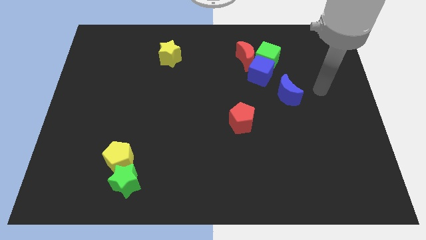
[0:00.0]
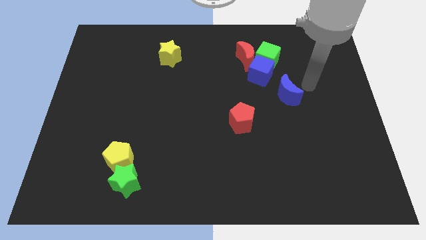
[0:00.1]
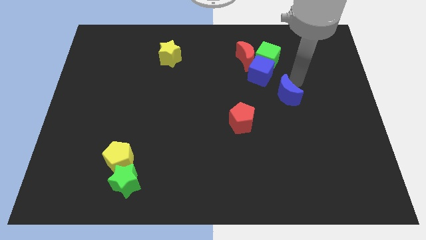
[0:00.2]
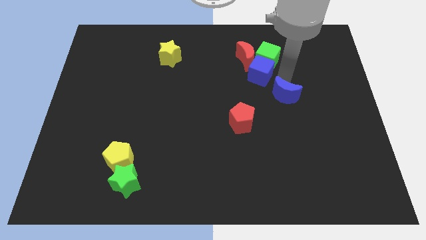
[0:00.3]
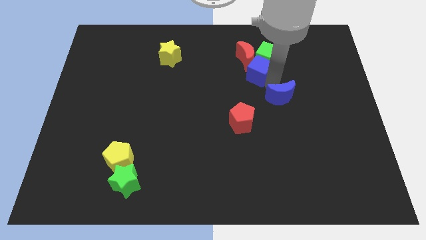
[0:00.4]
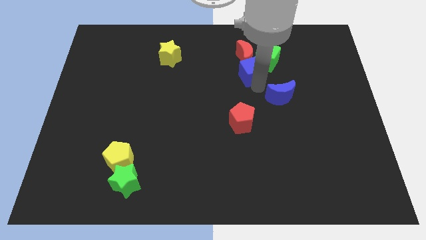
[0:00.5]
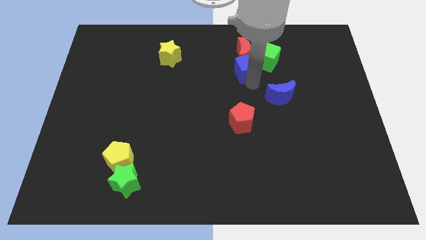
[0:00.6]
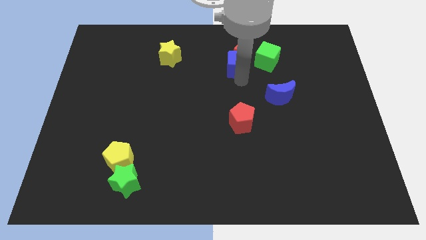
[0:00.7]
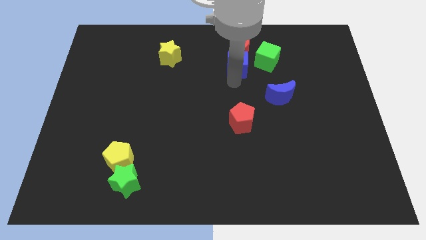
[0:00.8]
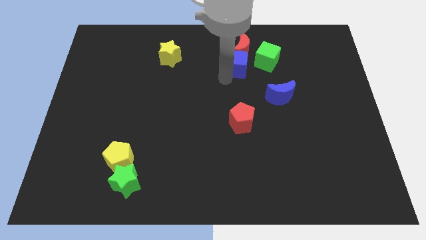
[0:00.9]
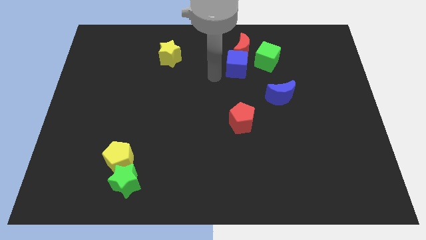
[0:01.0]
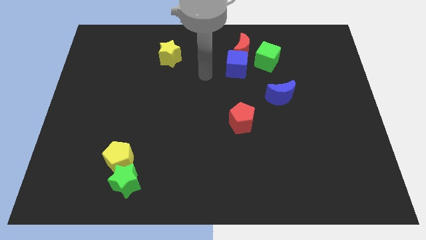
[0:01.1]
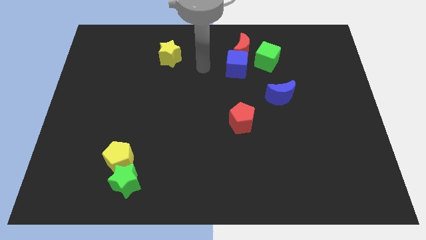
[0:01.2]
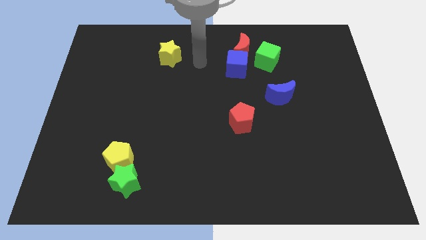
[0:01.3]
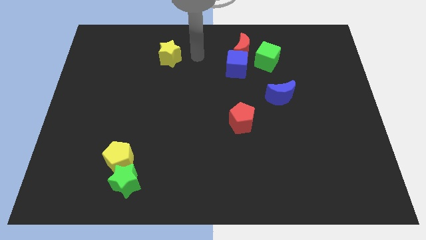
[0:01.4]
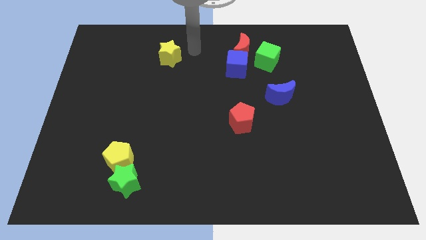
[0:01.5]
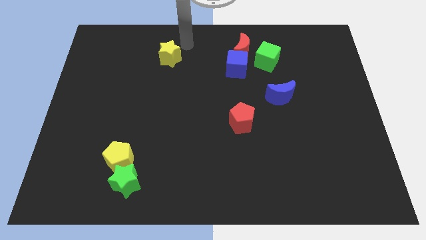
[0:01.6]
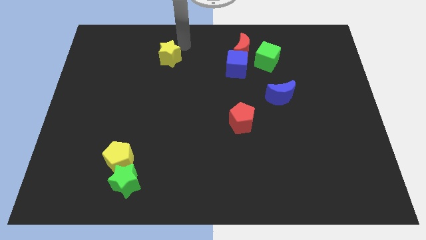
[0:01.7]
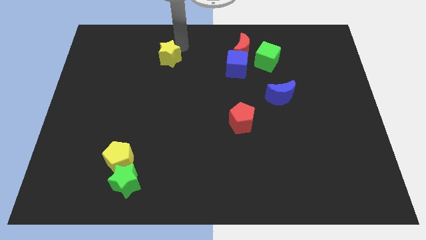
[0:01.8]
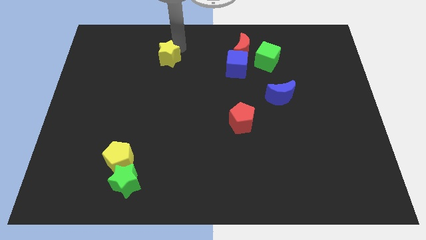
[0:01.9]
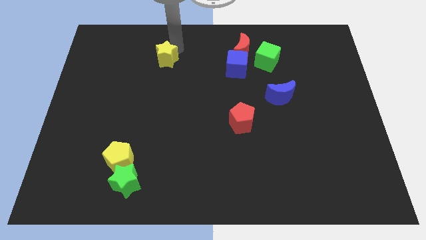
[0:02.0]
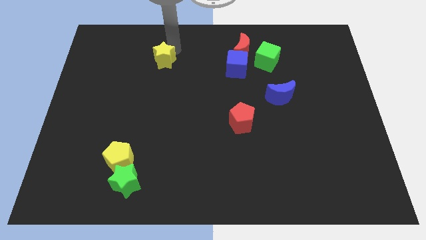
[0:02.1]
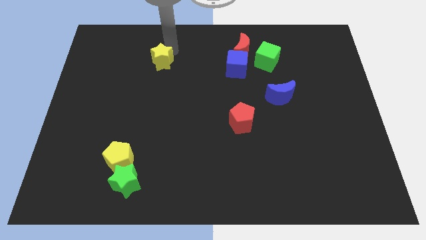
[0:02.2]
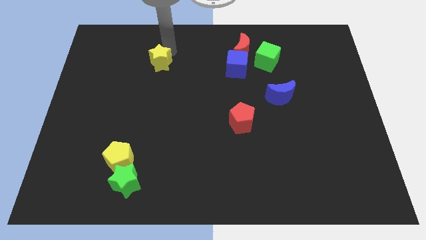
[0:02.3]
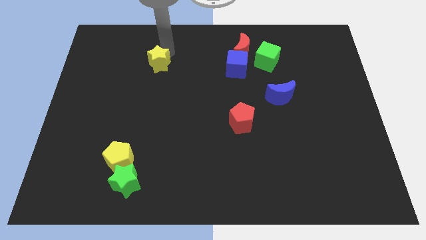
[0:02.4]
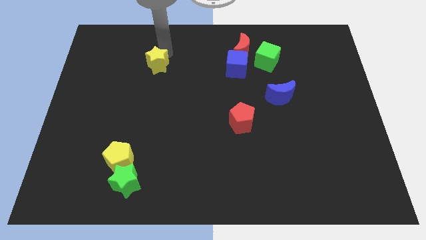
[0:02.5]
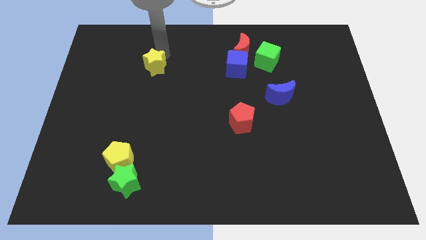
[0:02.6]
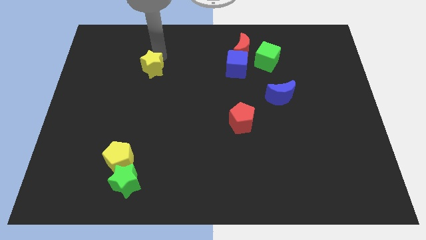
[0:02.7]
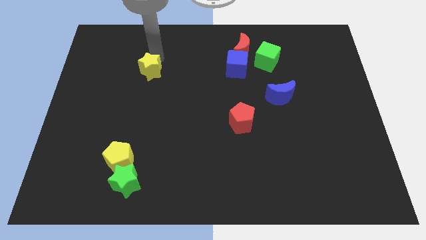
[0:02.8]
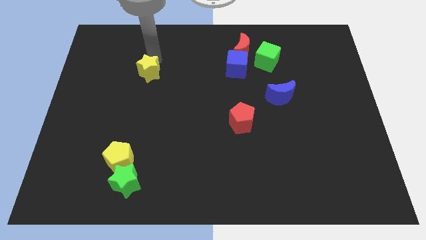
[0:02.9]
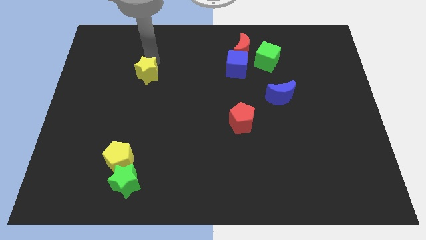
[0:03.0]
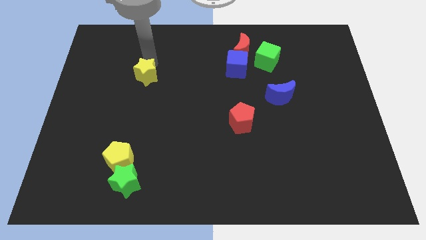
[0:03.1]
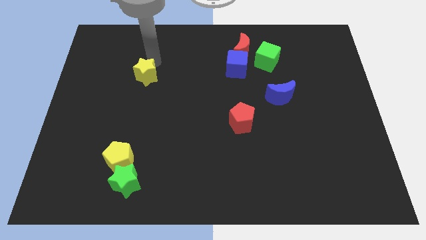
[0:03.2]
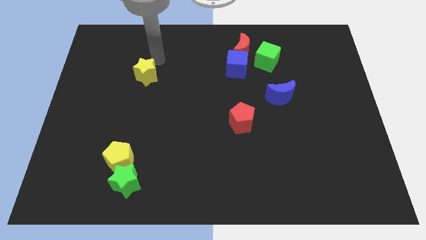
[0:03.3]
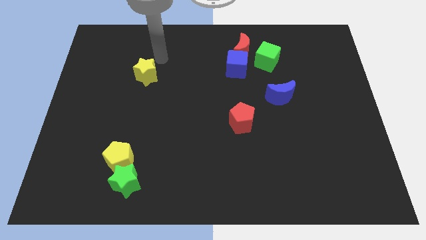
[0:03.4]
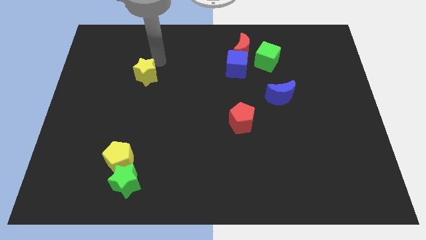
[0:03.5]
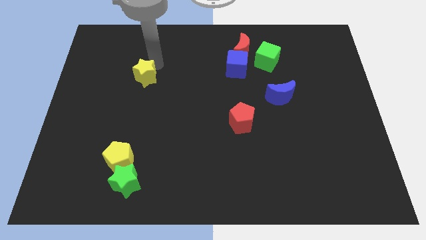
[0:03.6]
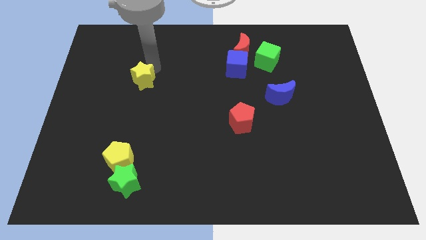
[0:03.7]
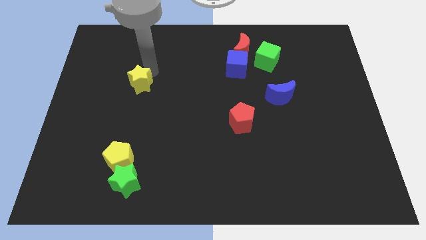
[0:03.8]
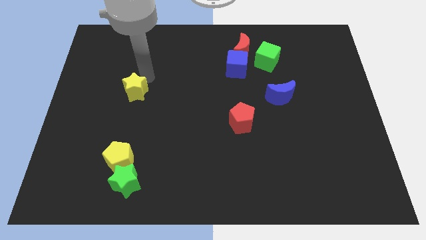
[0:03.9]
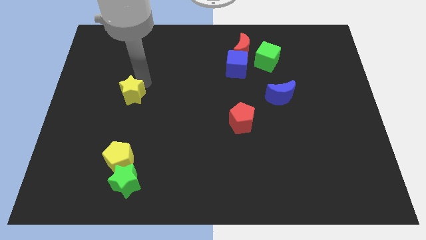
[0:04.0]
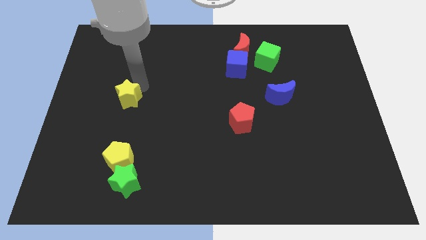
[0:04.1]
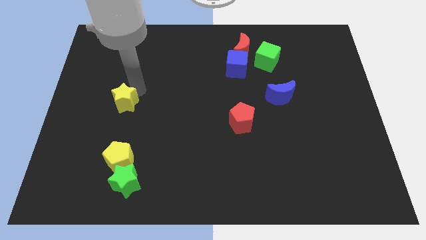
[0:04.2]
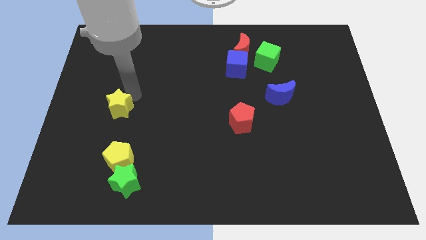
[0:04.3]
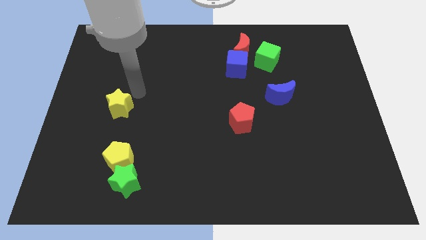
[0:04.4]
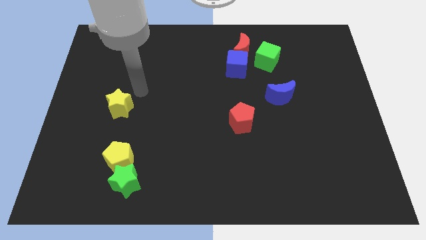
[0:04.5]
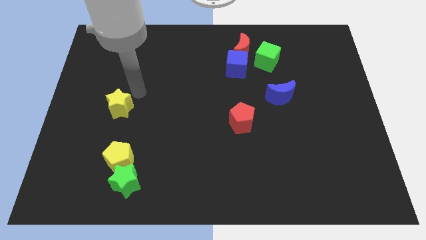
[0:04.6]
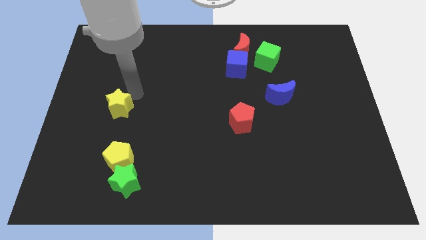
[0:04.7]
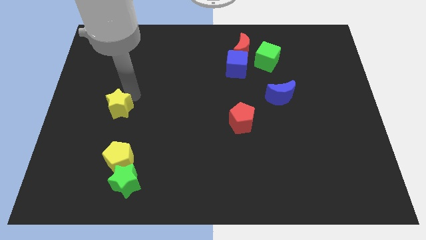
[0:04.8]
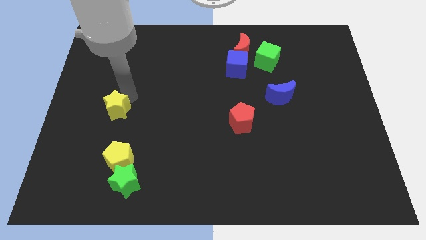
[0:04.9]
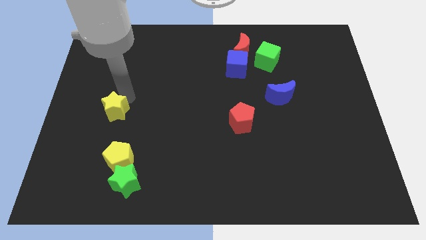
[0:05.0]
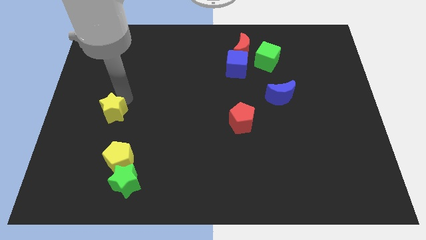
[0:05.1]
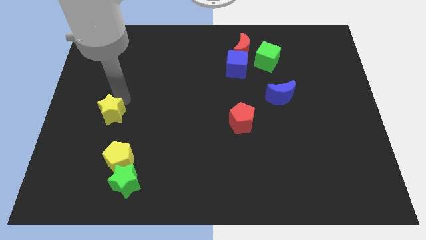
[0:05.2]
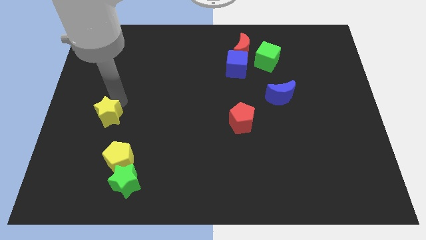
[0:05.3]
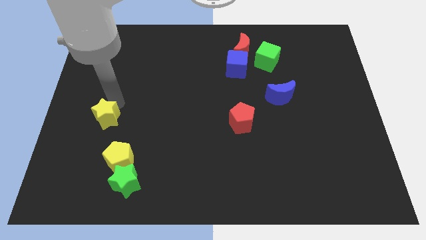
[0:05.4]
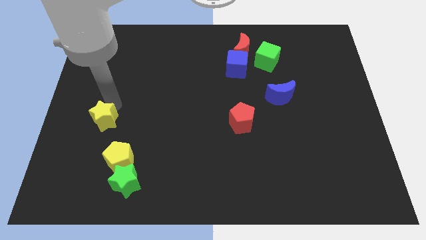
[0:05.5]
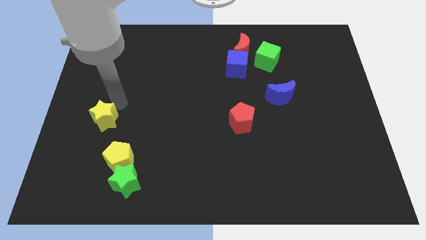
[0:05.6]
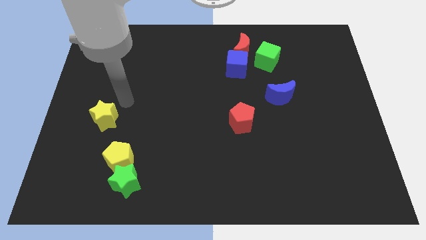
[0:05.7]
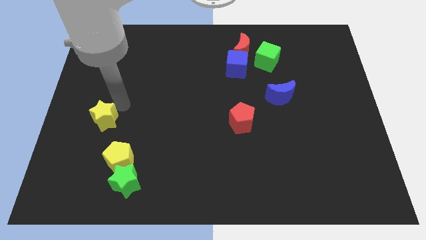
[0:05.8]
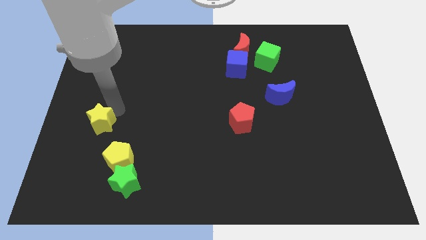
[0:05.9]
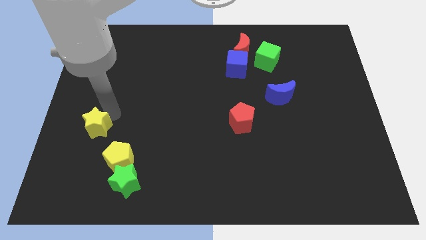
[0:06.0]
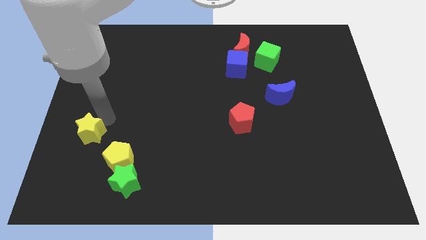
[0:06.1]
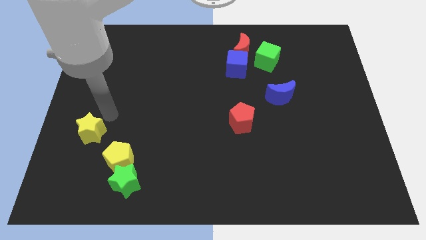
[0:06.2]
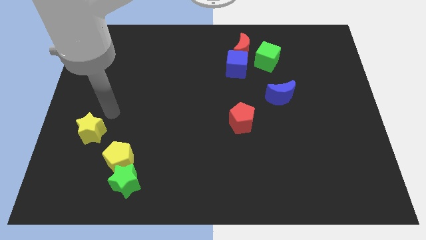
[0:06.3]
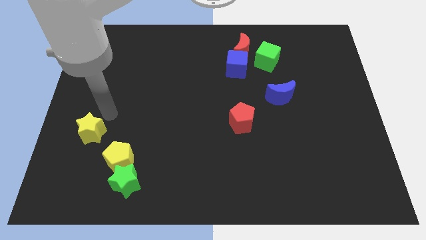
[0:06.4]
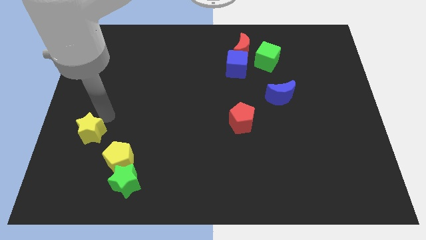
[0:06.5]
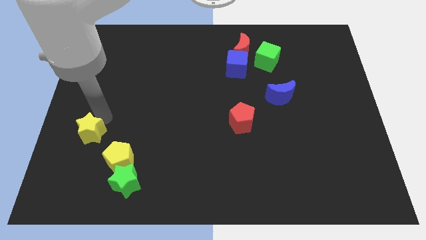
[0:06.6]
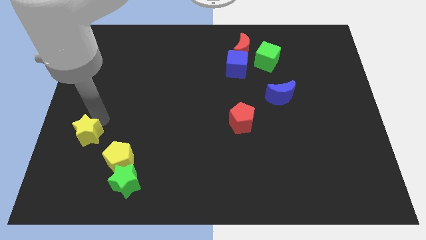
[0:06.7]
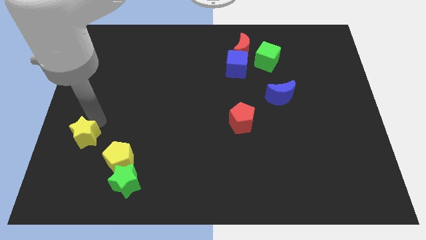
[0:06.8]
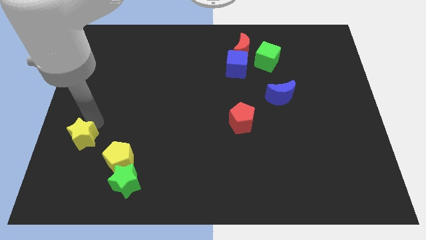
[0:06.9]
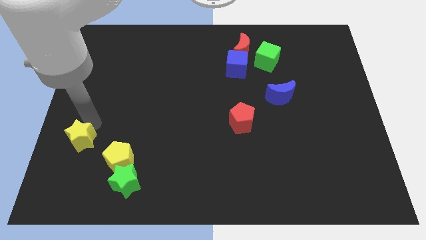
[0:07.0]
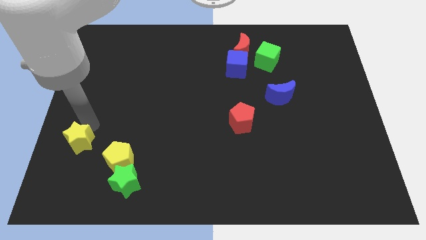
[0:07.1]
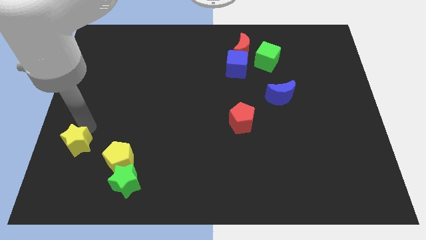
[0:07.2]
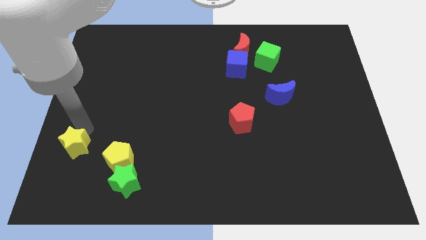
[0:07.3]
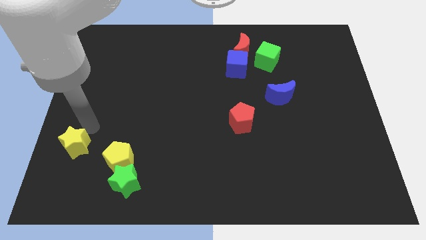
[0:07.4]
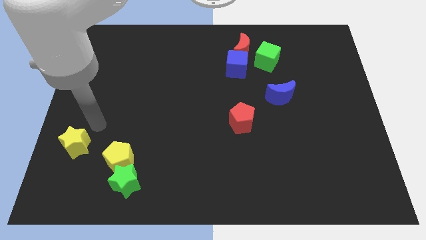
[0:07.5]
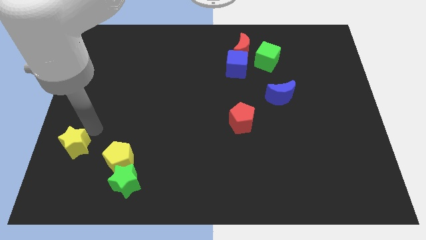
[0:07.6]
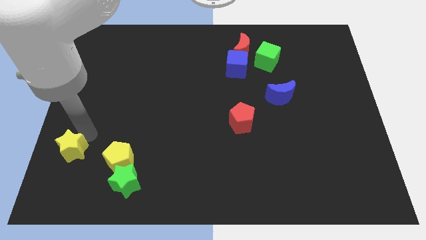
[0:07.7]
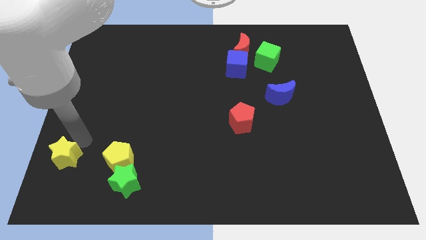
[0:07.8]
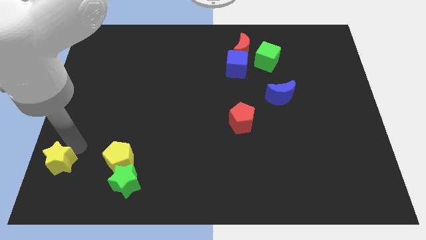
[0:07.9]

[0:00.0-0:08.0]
slide the yellow star to the bottom left corner
